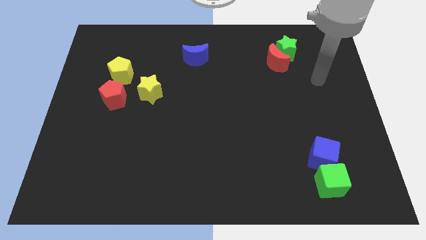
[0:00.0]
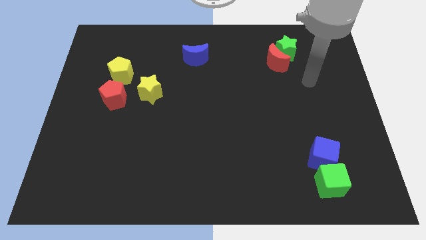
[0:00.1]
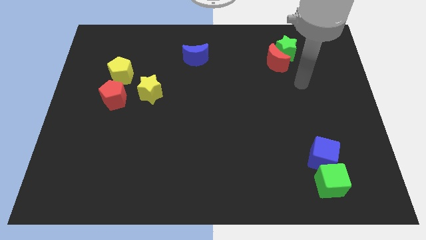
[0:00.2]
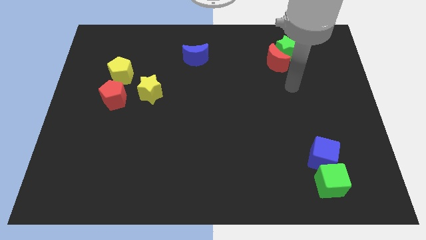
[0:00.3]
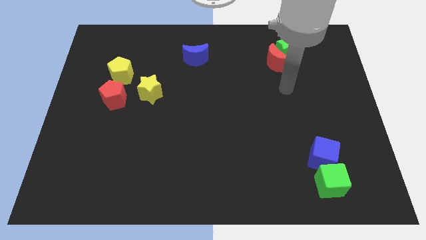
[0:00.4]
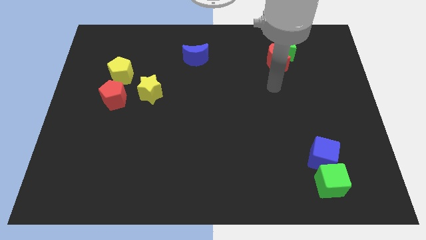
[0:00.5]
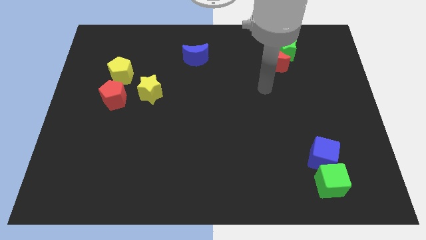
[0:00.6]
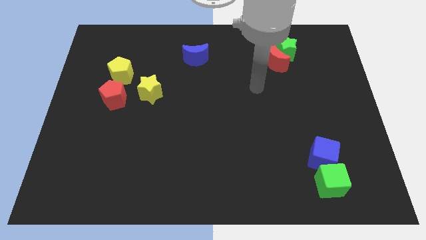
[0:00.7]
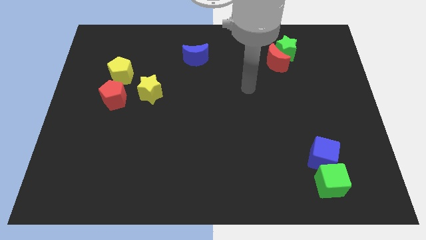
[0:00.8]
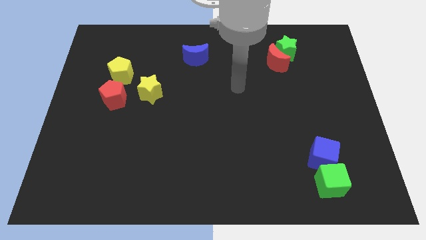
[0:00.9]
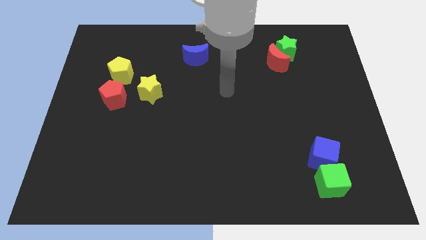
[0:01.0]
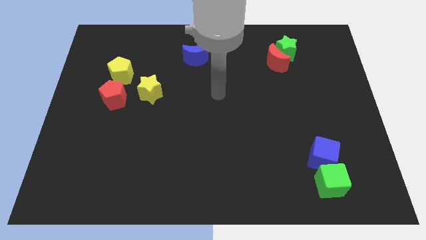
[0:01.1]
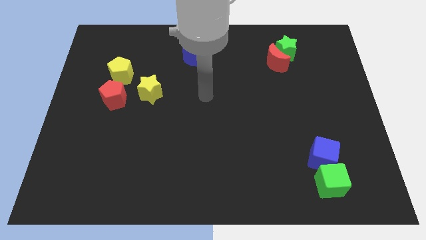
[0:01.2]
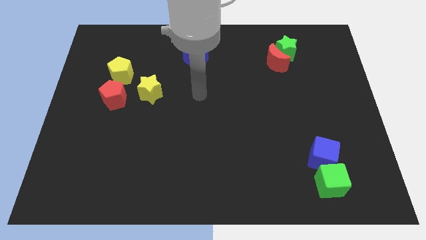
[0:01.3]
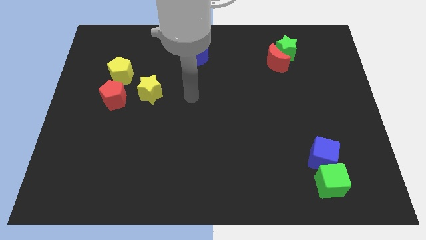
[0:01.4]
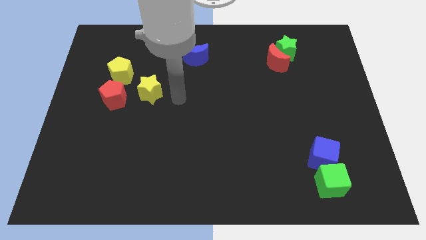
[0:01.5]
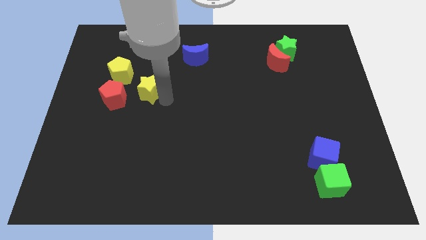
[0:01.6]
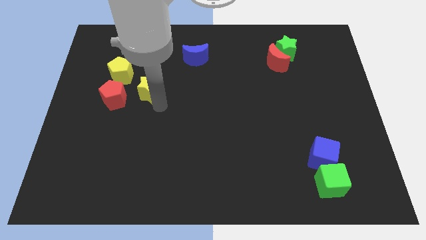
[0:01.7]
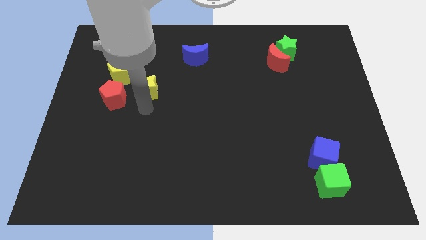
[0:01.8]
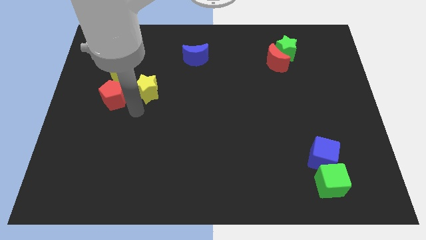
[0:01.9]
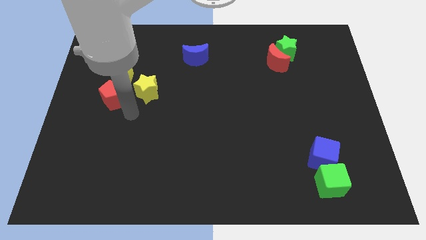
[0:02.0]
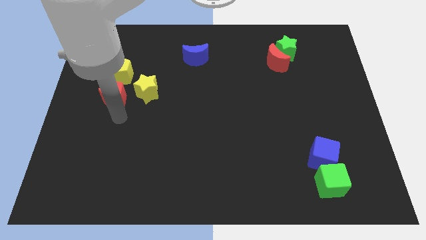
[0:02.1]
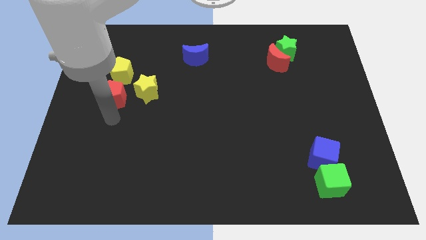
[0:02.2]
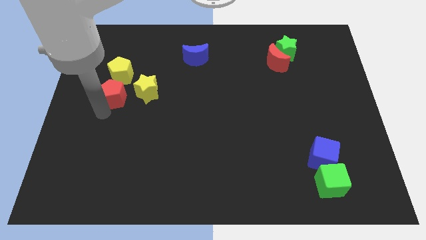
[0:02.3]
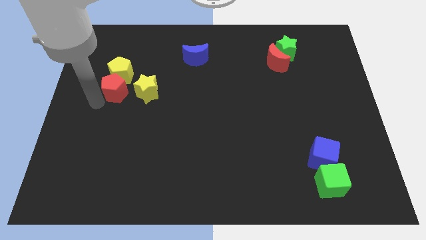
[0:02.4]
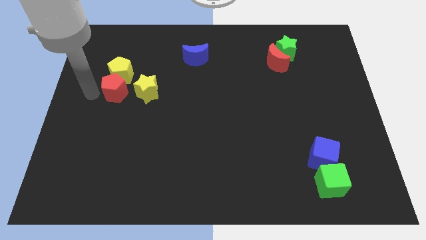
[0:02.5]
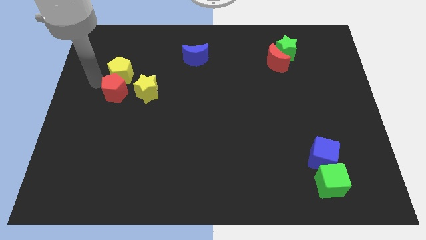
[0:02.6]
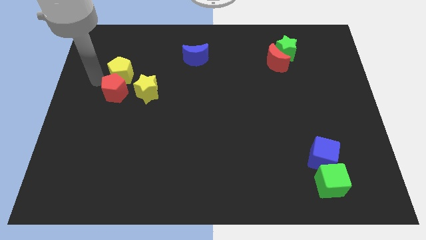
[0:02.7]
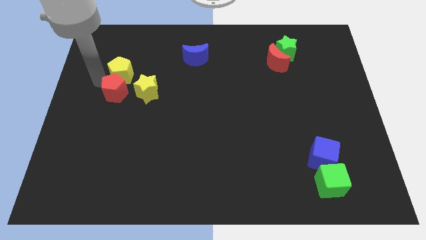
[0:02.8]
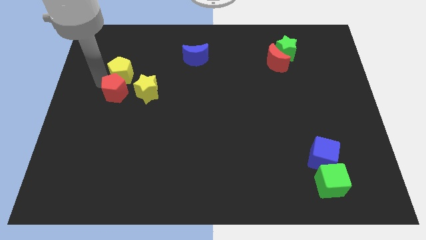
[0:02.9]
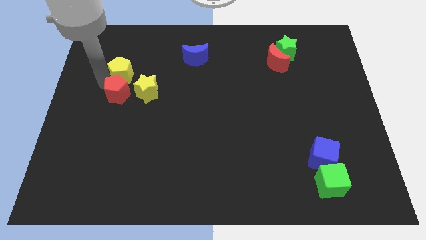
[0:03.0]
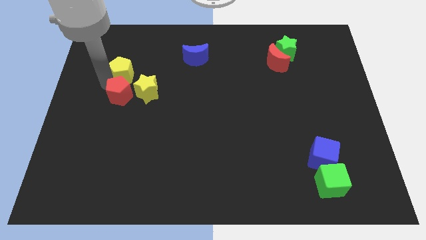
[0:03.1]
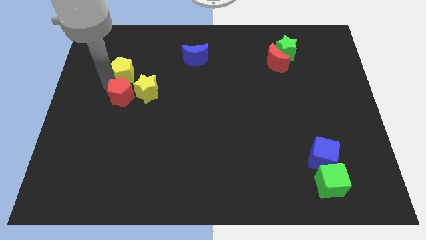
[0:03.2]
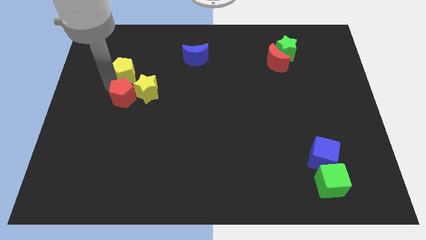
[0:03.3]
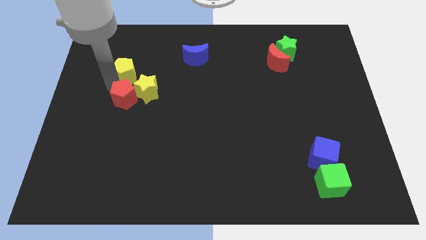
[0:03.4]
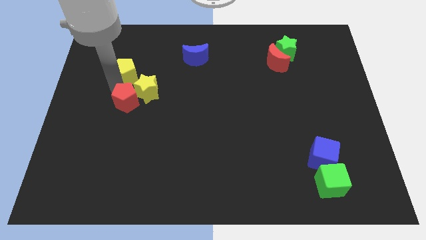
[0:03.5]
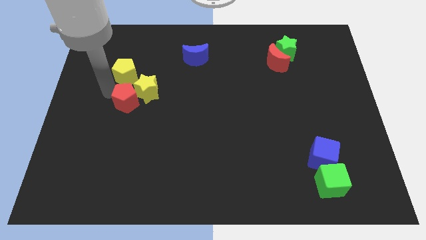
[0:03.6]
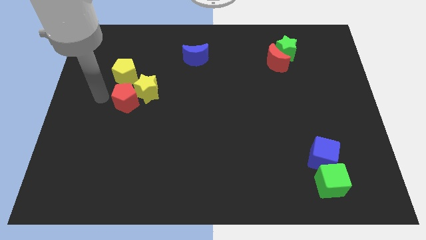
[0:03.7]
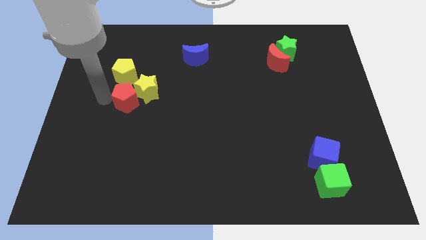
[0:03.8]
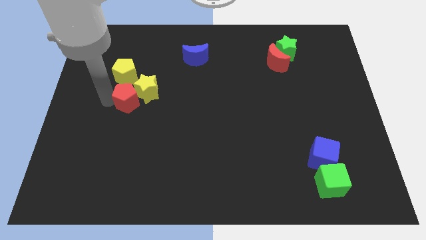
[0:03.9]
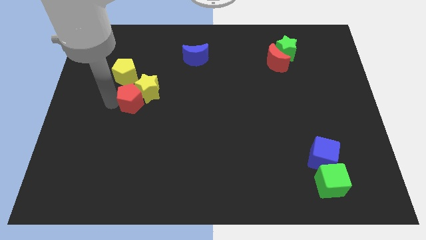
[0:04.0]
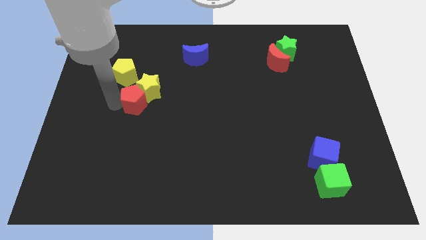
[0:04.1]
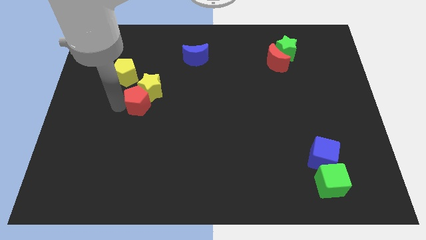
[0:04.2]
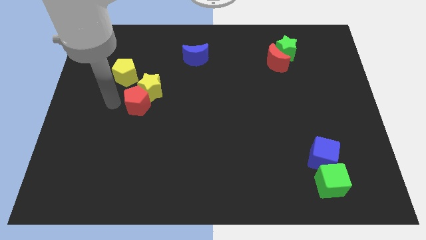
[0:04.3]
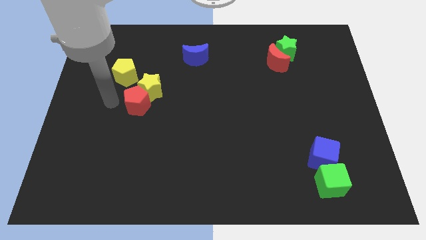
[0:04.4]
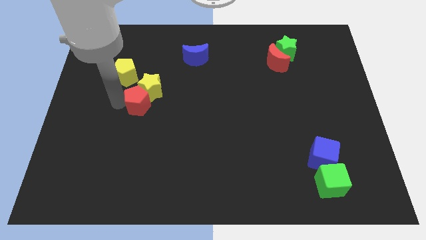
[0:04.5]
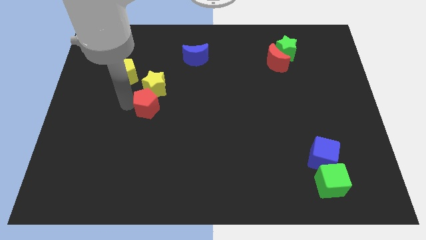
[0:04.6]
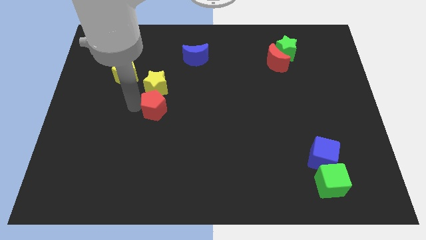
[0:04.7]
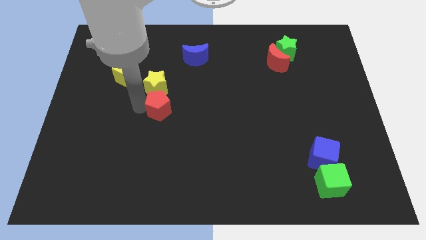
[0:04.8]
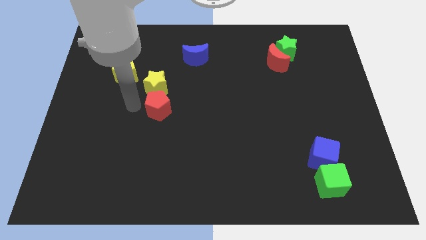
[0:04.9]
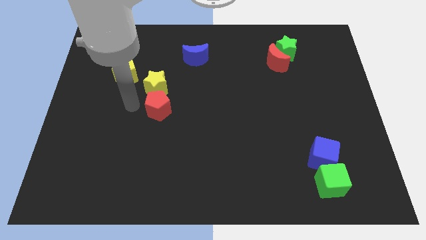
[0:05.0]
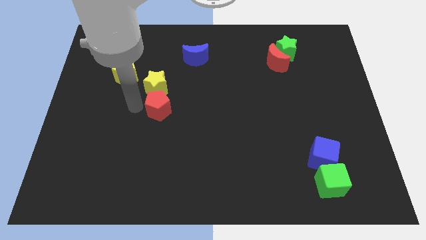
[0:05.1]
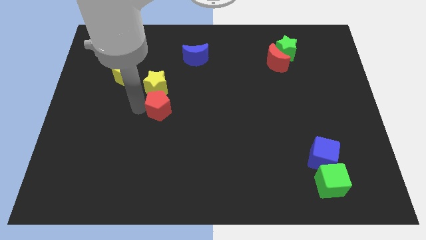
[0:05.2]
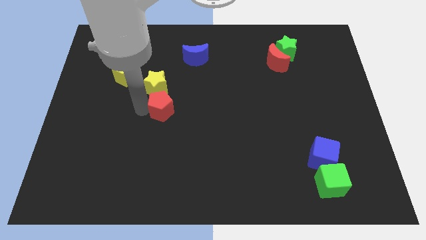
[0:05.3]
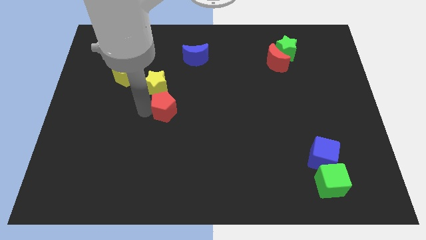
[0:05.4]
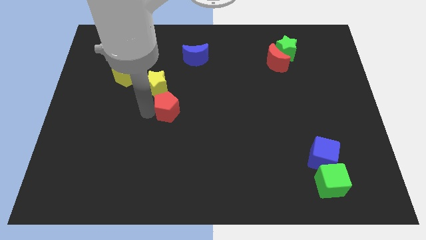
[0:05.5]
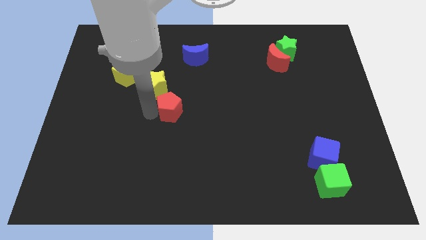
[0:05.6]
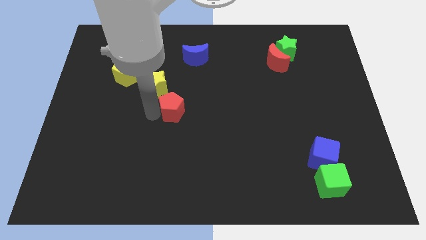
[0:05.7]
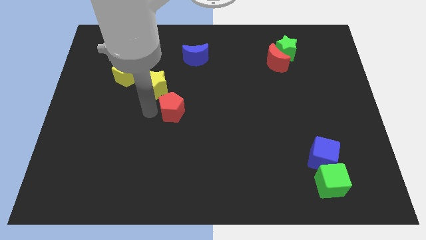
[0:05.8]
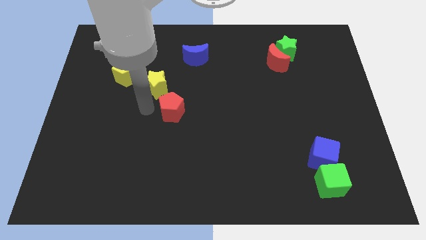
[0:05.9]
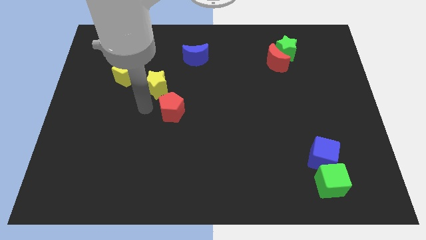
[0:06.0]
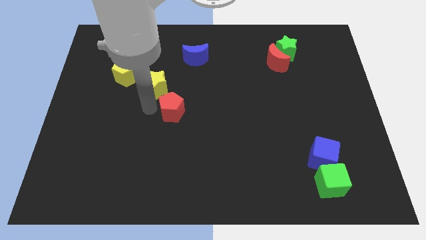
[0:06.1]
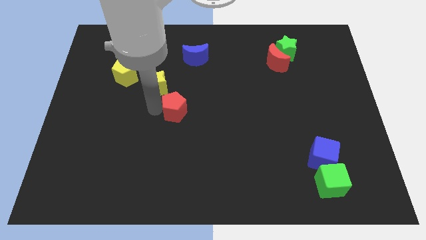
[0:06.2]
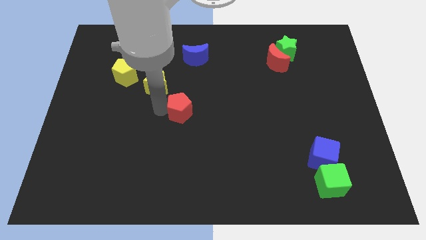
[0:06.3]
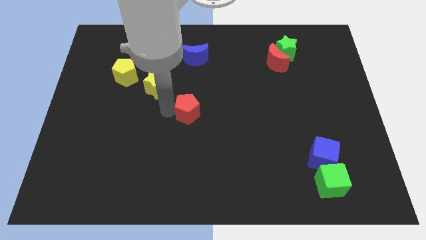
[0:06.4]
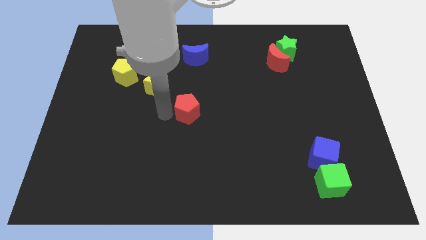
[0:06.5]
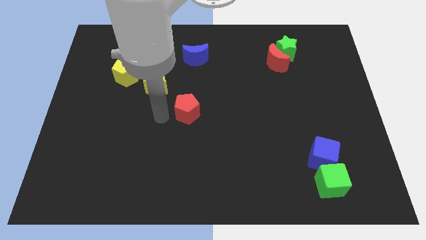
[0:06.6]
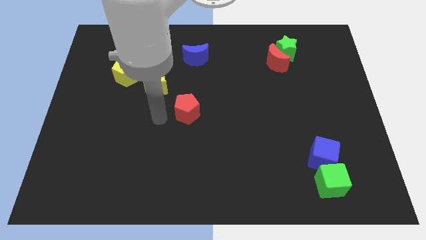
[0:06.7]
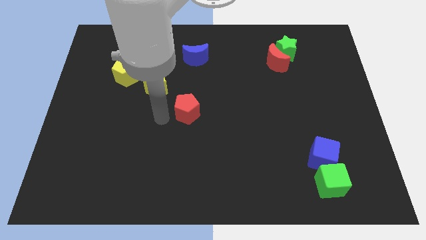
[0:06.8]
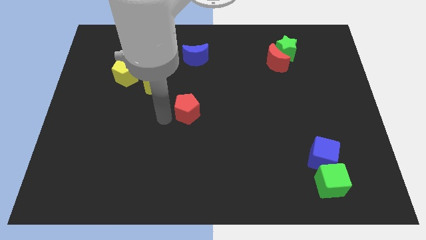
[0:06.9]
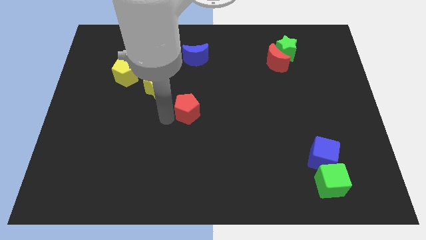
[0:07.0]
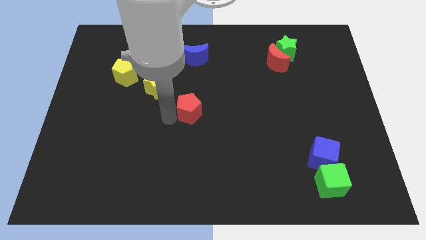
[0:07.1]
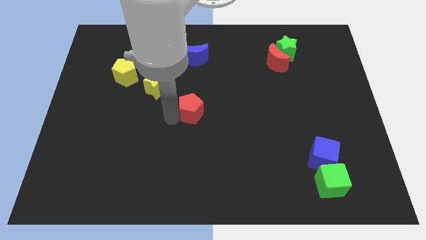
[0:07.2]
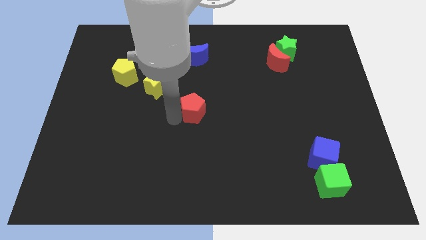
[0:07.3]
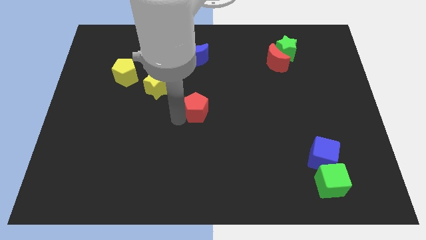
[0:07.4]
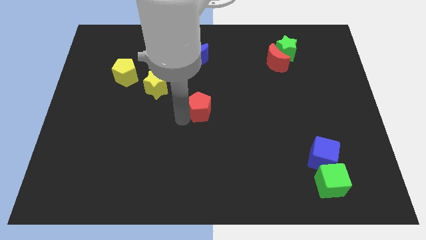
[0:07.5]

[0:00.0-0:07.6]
slide the red pentagon to the right

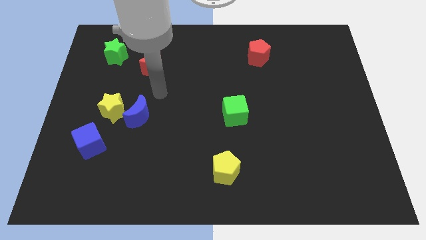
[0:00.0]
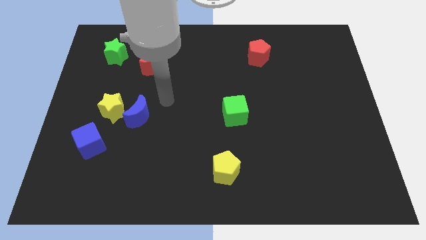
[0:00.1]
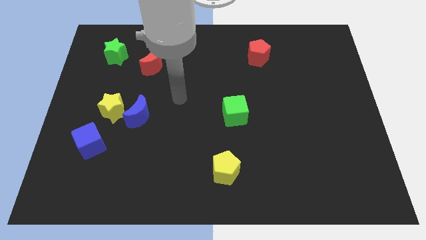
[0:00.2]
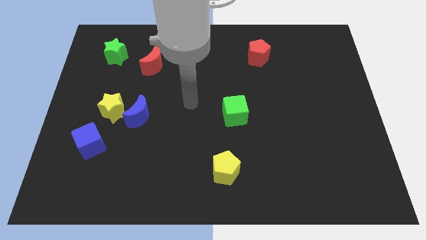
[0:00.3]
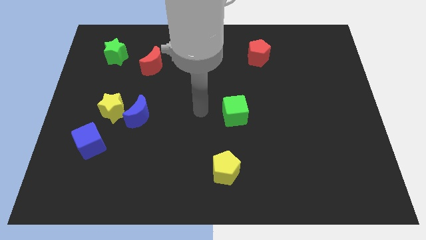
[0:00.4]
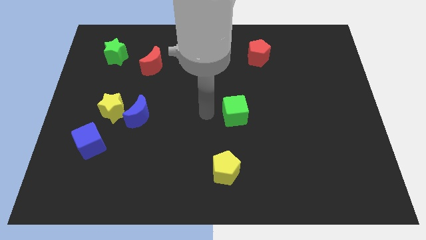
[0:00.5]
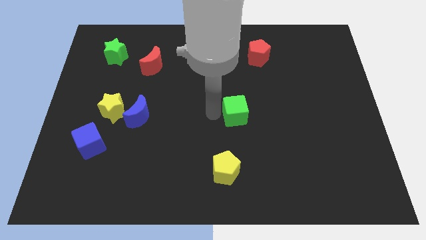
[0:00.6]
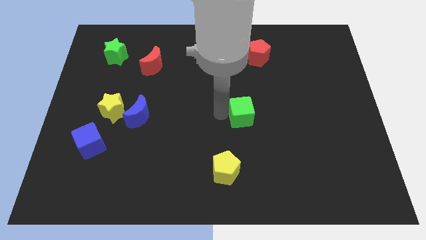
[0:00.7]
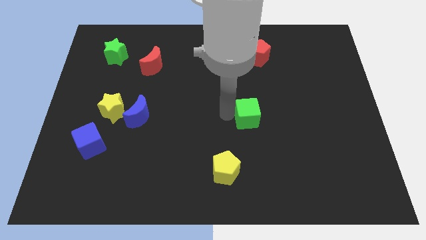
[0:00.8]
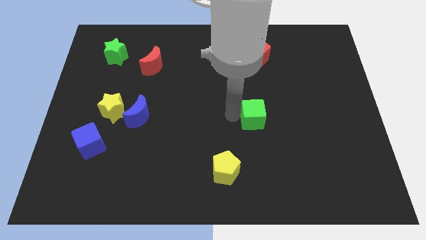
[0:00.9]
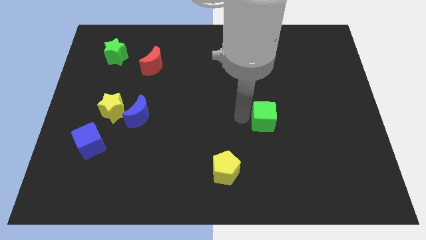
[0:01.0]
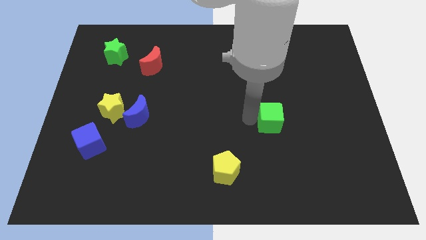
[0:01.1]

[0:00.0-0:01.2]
move the green cube a little bit to the right
